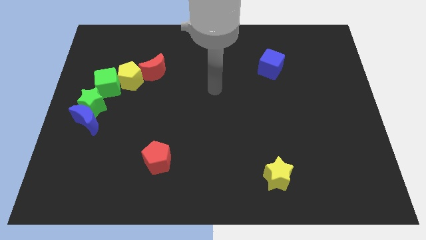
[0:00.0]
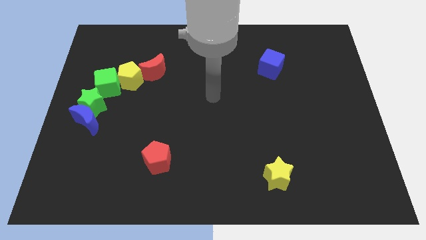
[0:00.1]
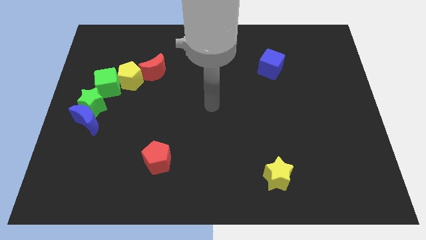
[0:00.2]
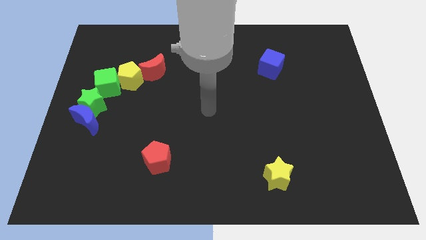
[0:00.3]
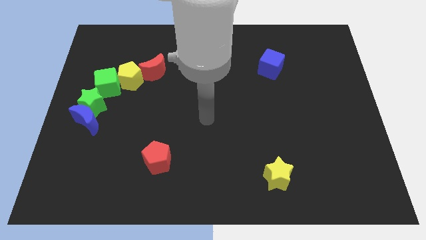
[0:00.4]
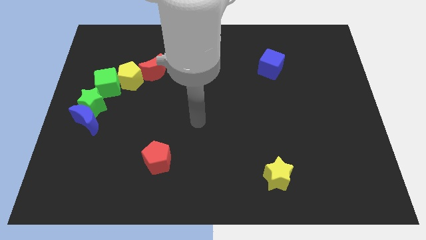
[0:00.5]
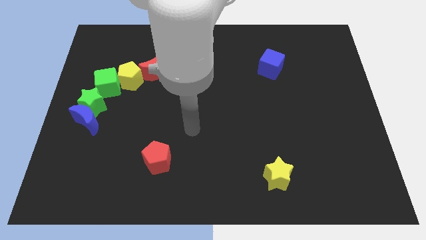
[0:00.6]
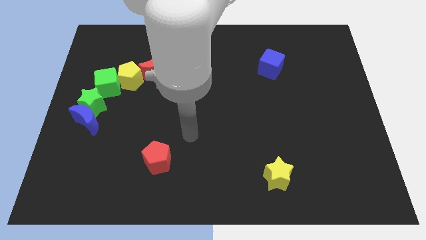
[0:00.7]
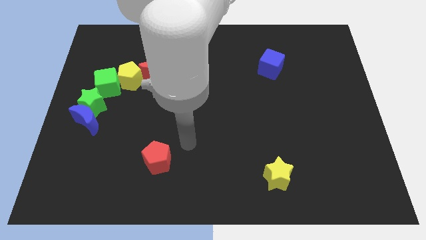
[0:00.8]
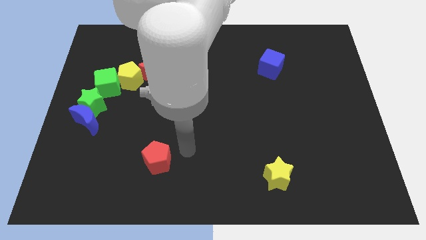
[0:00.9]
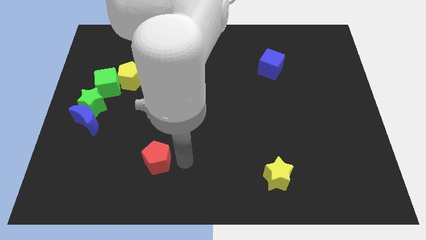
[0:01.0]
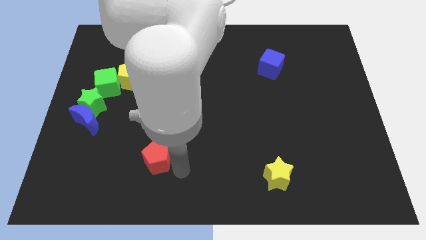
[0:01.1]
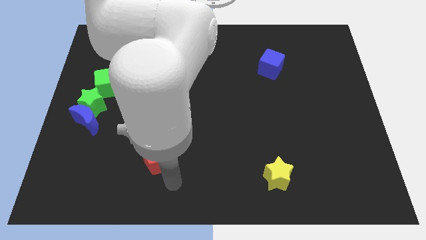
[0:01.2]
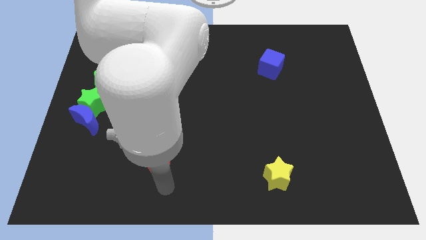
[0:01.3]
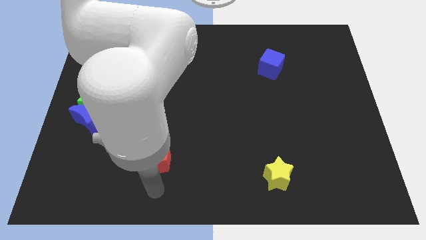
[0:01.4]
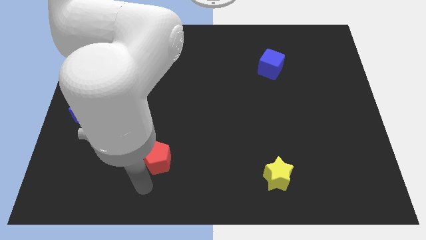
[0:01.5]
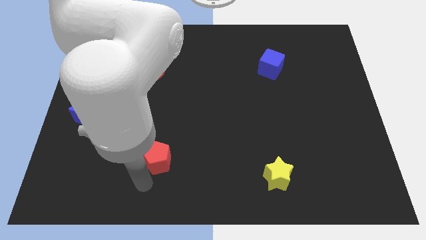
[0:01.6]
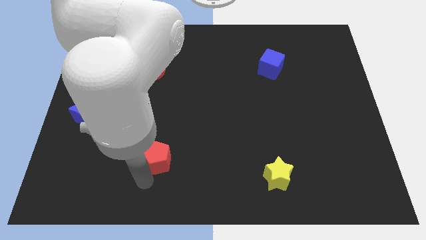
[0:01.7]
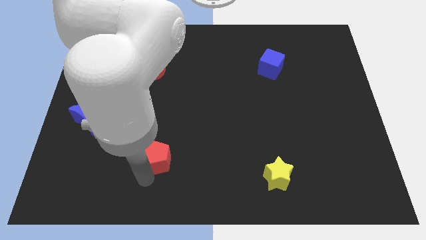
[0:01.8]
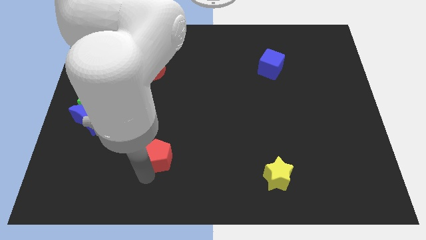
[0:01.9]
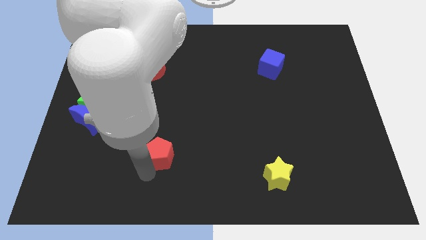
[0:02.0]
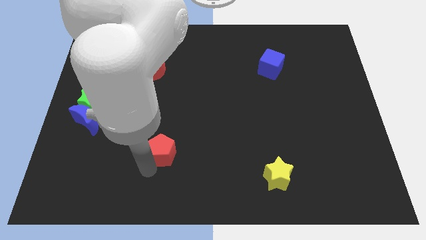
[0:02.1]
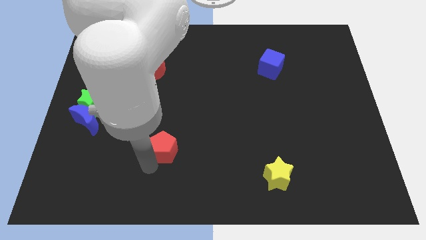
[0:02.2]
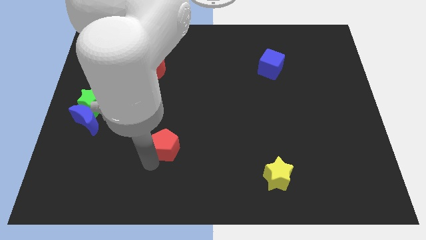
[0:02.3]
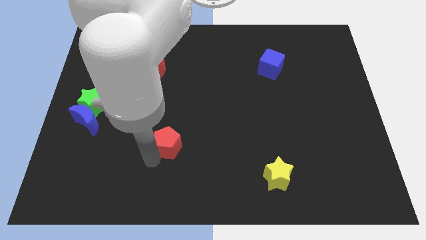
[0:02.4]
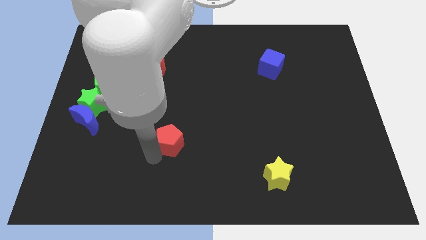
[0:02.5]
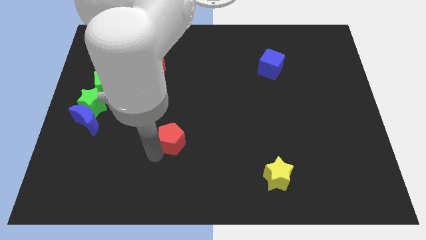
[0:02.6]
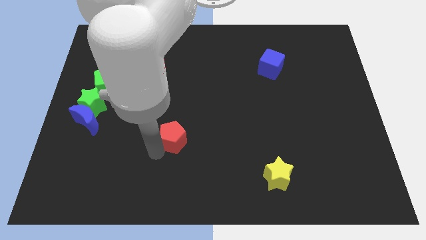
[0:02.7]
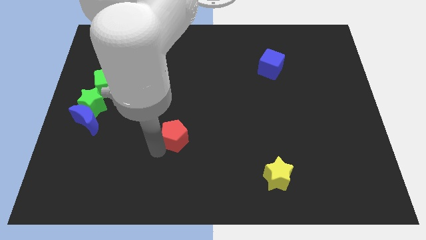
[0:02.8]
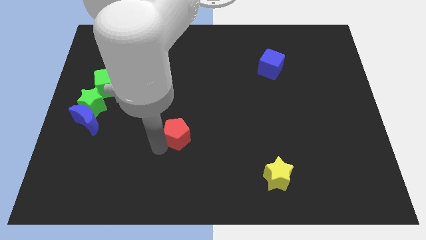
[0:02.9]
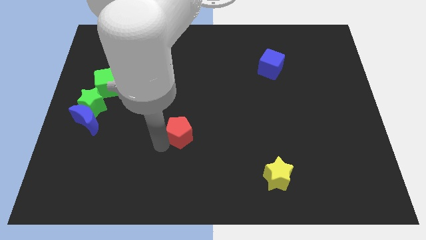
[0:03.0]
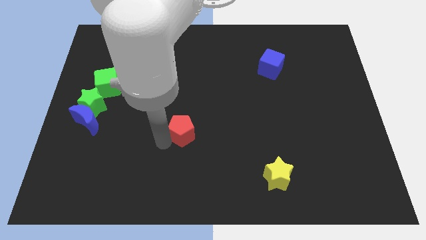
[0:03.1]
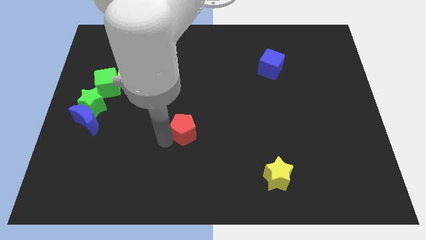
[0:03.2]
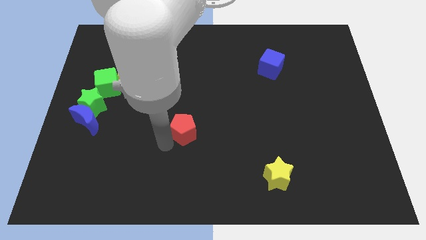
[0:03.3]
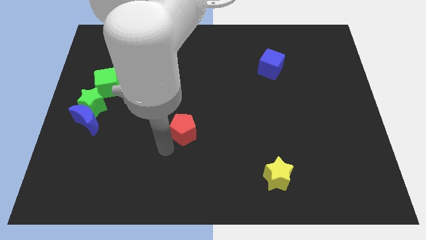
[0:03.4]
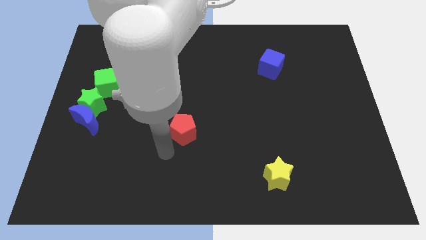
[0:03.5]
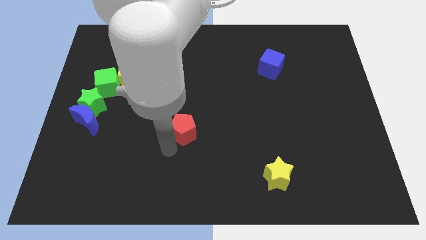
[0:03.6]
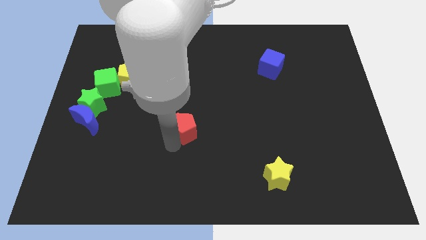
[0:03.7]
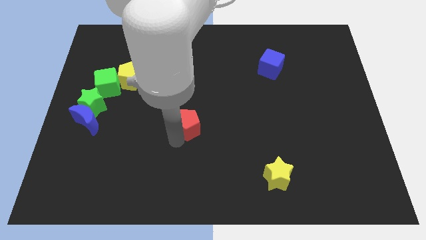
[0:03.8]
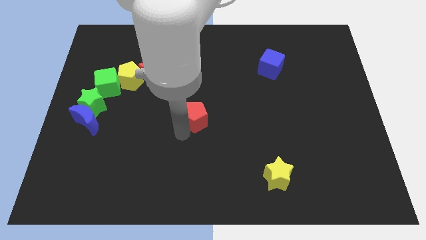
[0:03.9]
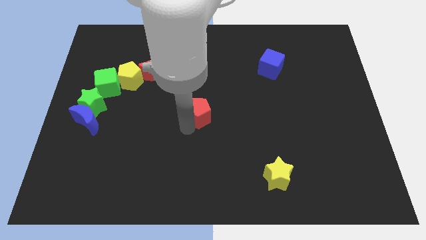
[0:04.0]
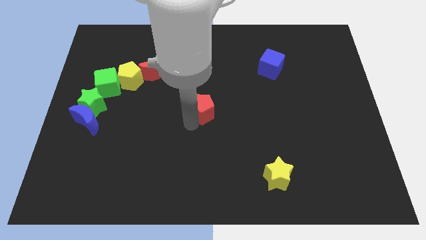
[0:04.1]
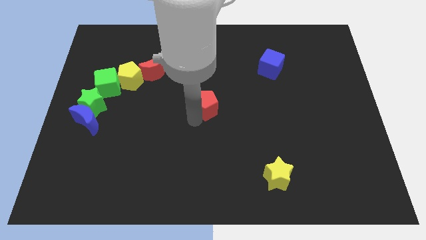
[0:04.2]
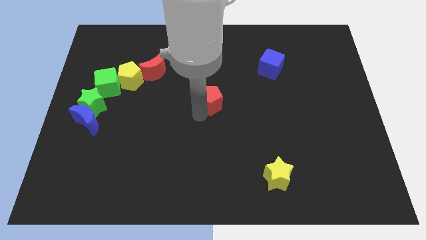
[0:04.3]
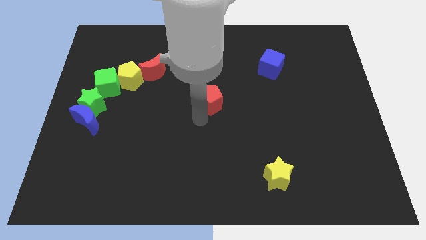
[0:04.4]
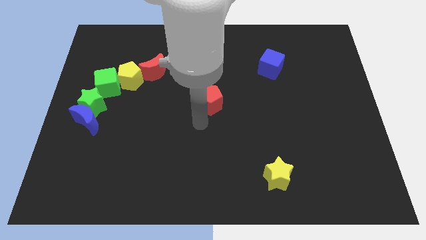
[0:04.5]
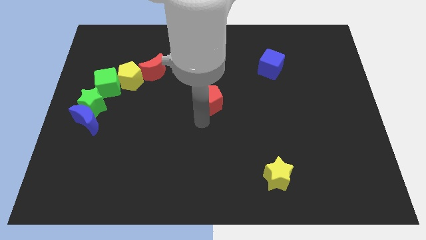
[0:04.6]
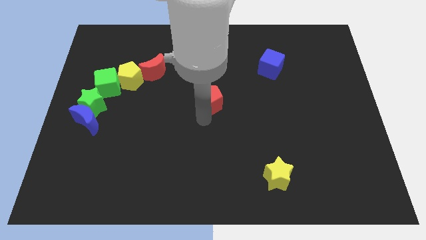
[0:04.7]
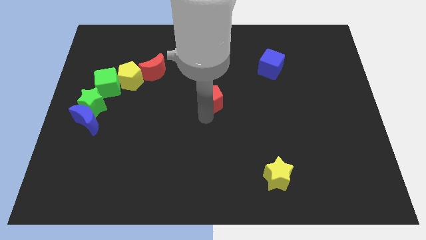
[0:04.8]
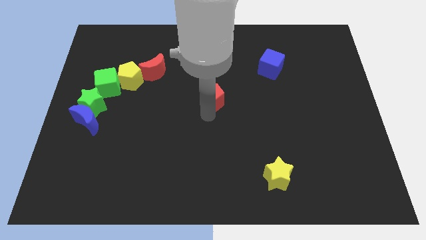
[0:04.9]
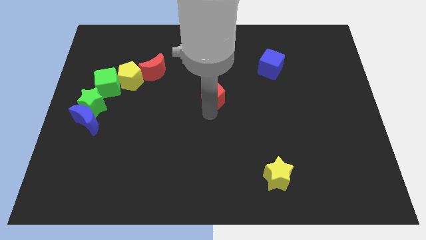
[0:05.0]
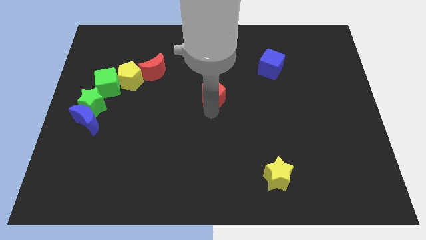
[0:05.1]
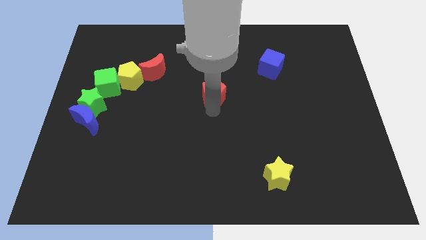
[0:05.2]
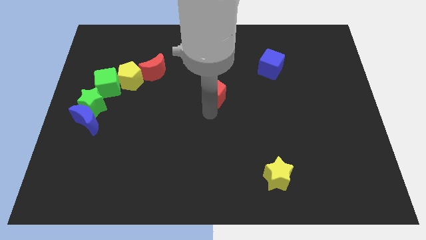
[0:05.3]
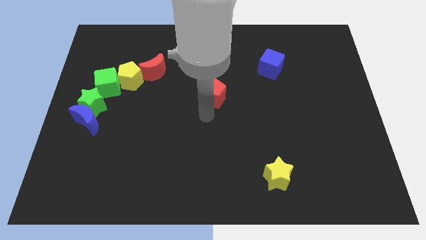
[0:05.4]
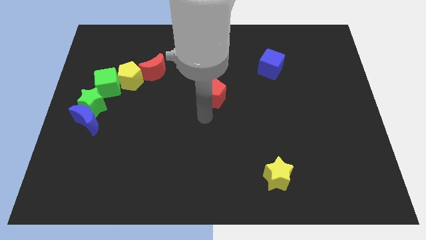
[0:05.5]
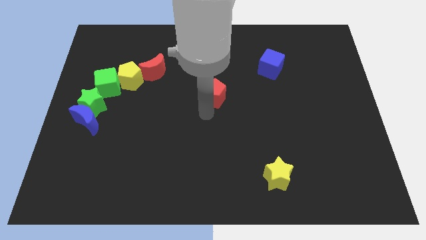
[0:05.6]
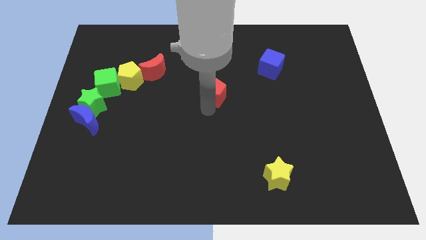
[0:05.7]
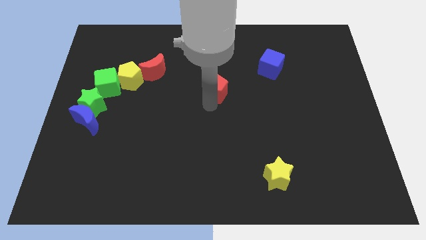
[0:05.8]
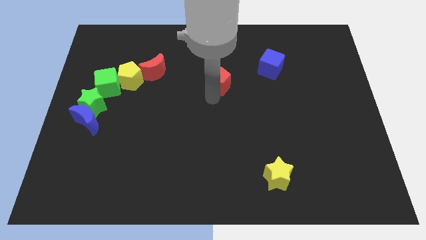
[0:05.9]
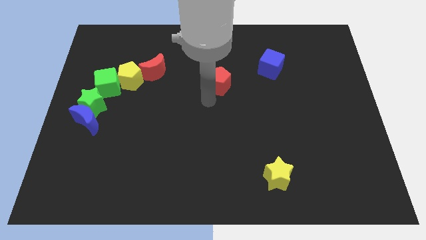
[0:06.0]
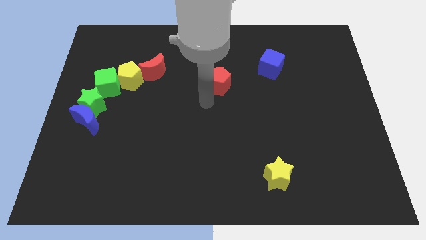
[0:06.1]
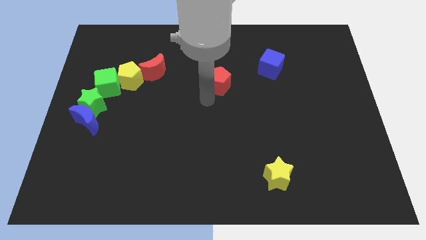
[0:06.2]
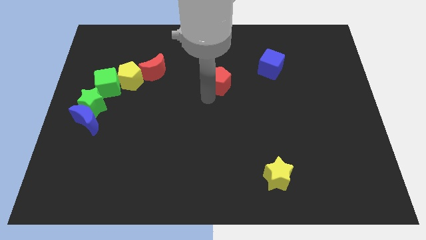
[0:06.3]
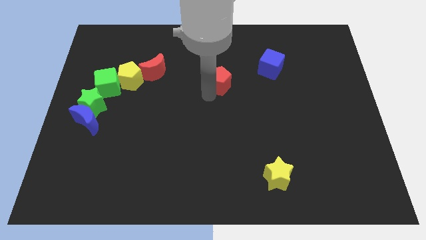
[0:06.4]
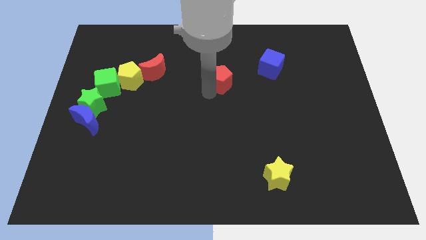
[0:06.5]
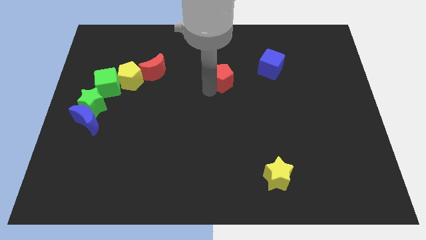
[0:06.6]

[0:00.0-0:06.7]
slide the red pentagon just left of the blue cube

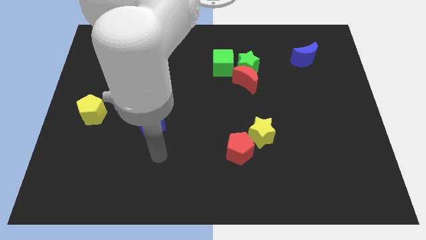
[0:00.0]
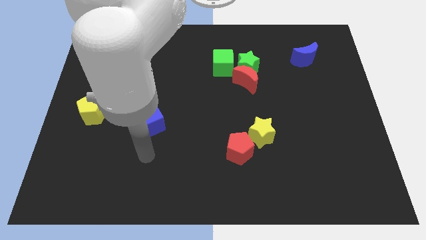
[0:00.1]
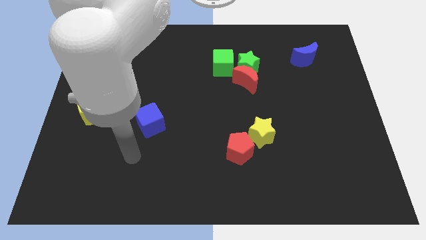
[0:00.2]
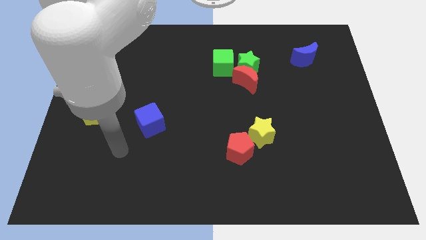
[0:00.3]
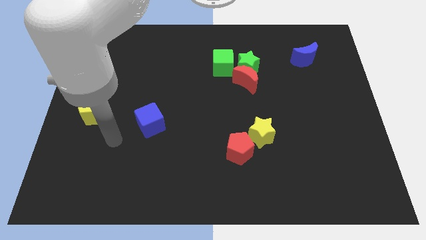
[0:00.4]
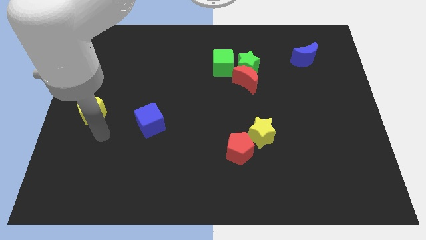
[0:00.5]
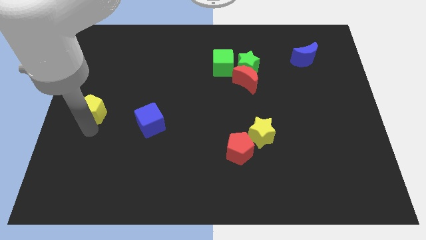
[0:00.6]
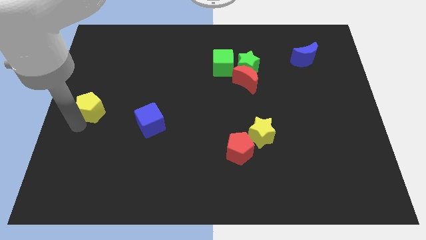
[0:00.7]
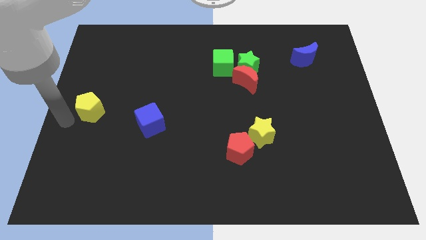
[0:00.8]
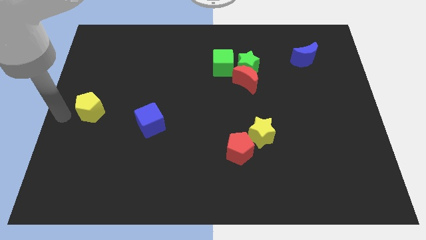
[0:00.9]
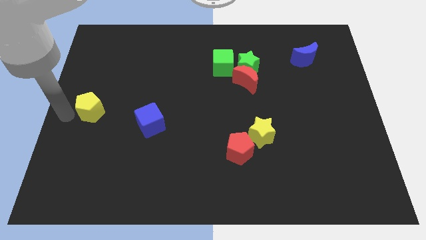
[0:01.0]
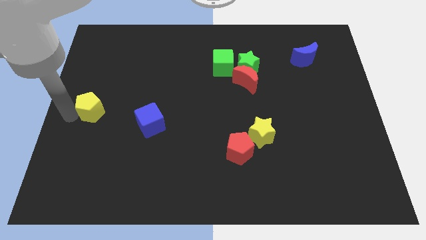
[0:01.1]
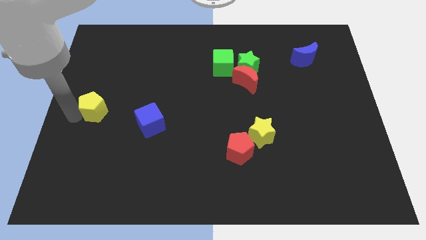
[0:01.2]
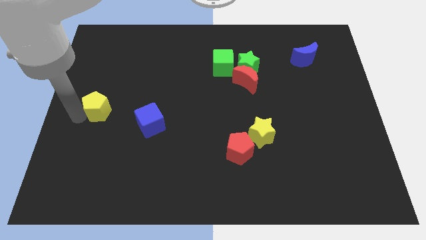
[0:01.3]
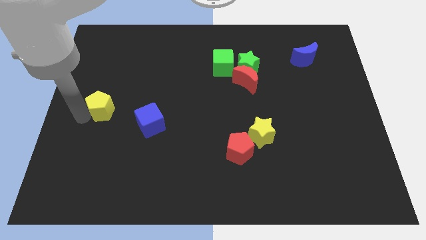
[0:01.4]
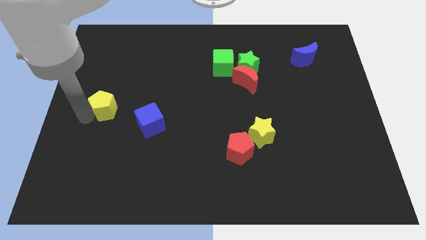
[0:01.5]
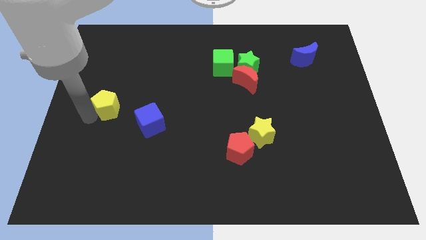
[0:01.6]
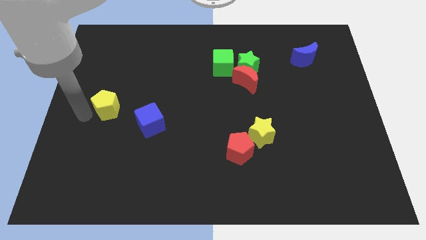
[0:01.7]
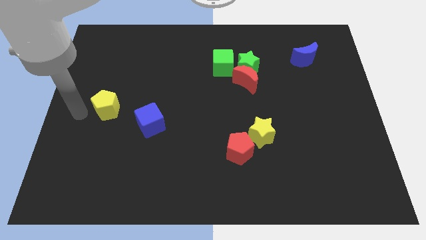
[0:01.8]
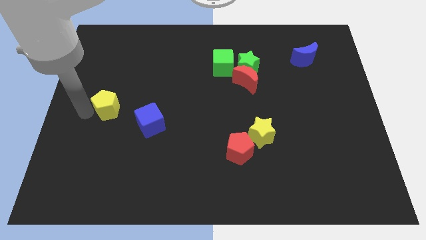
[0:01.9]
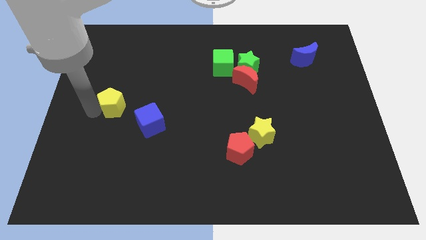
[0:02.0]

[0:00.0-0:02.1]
move the yellow pentagon to the top left of the blue cube
